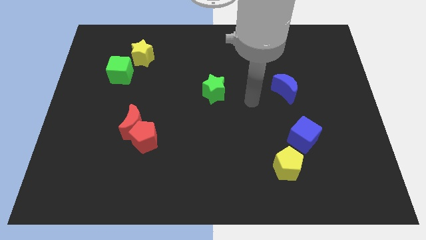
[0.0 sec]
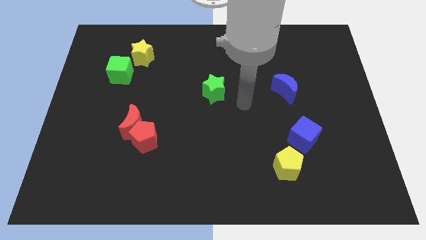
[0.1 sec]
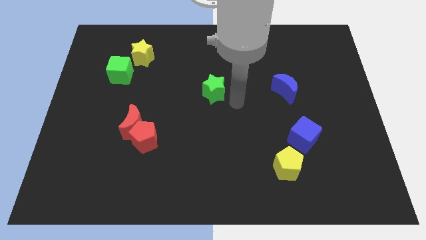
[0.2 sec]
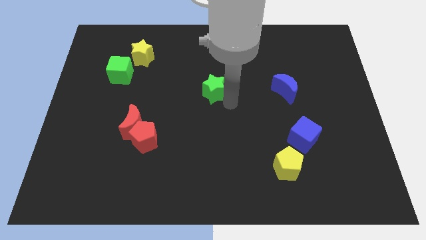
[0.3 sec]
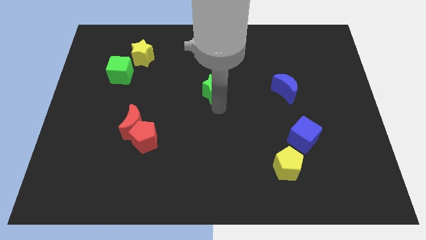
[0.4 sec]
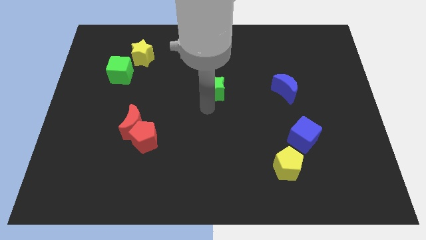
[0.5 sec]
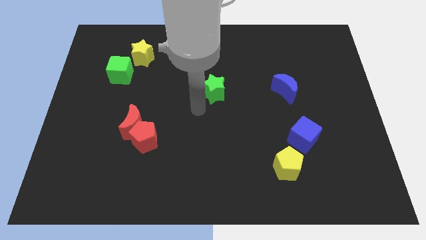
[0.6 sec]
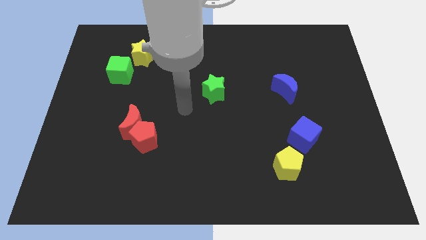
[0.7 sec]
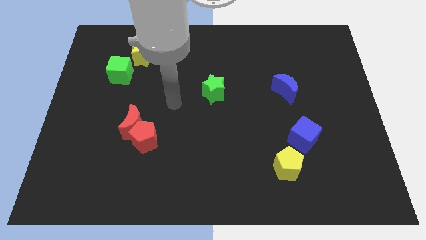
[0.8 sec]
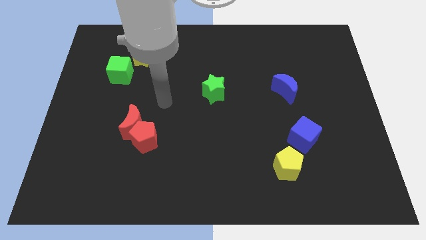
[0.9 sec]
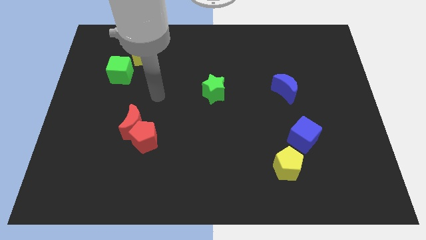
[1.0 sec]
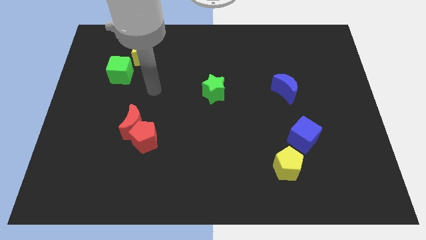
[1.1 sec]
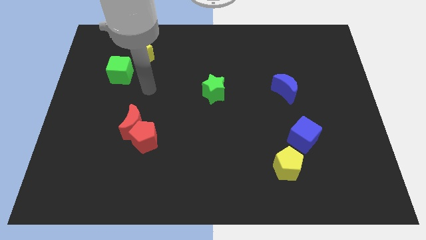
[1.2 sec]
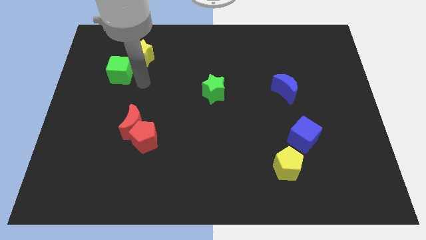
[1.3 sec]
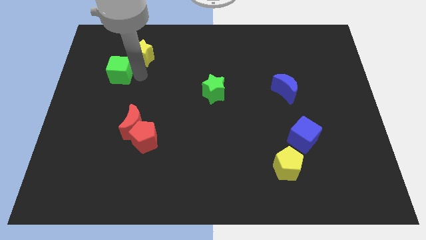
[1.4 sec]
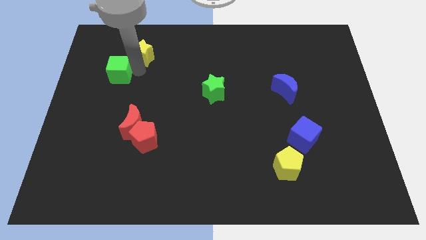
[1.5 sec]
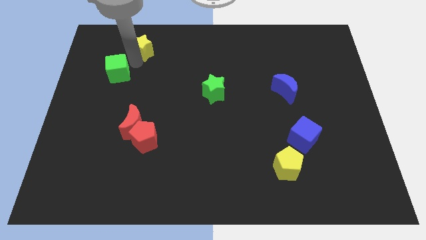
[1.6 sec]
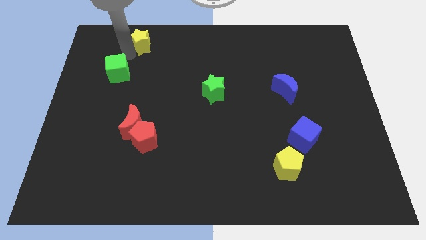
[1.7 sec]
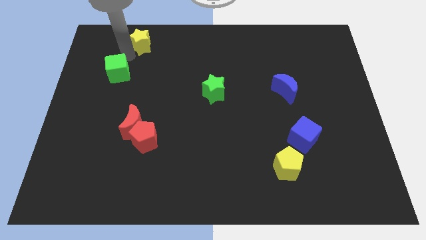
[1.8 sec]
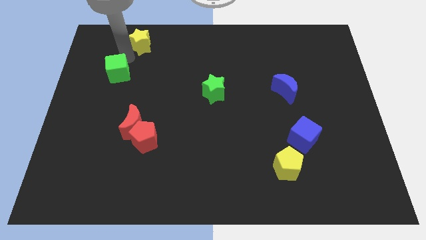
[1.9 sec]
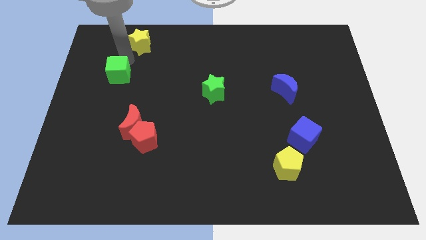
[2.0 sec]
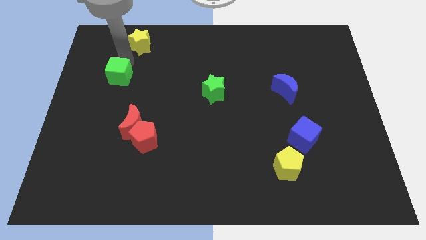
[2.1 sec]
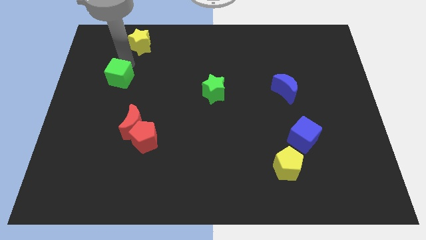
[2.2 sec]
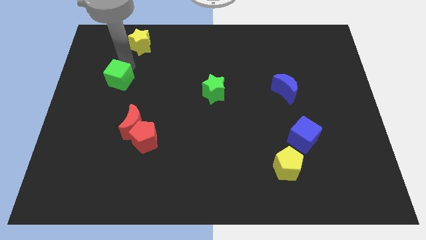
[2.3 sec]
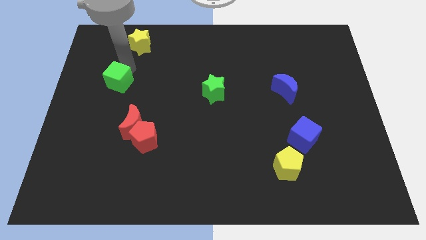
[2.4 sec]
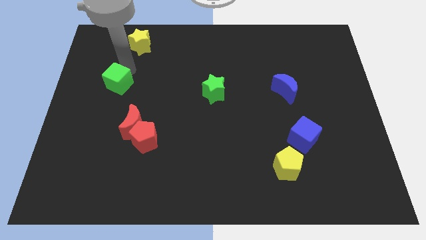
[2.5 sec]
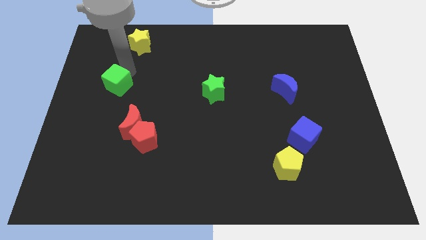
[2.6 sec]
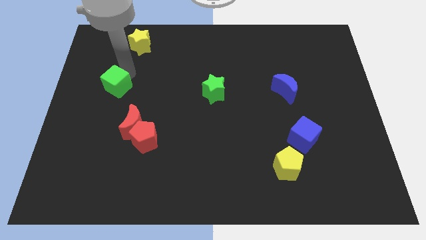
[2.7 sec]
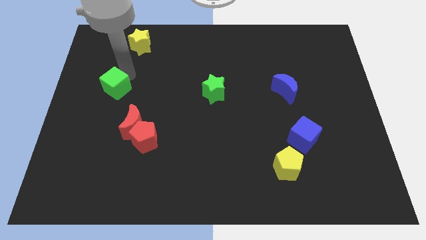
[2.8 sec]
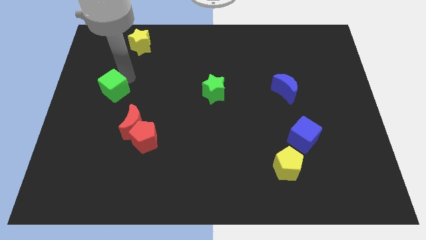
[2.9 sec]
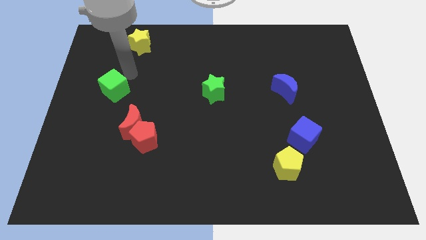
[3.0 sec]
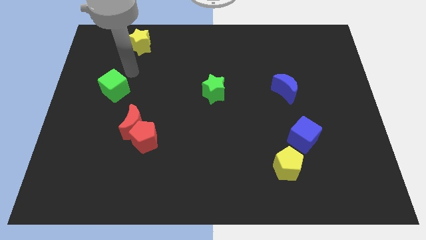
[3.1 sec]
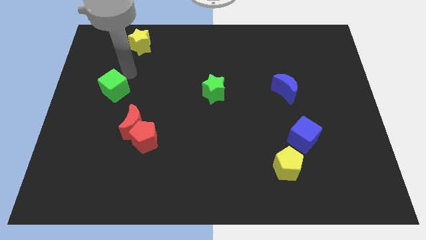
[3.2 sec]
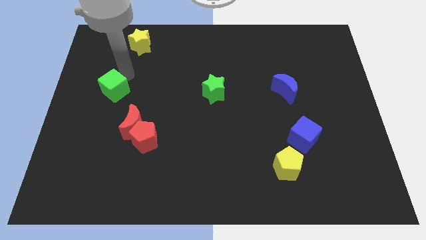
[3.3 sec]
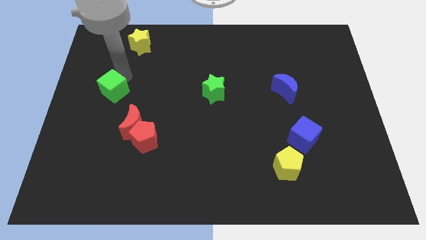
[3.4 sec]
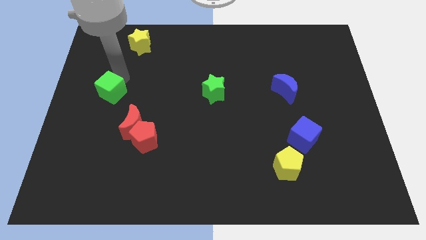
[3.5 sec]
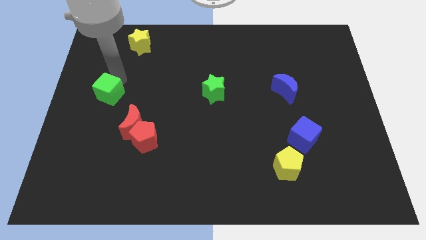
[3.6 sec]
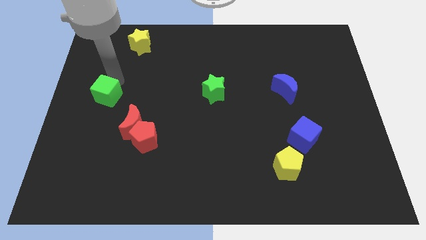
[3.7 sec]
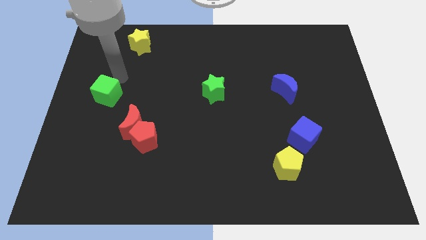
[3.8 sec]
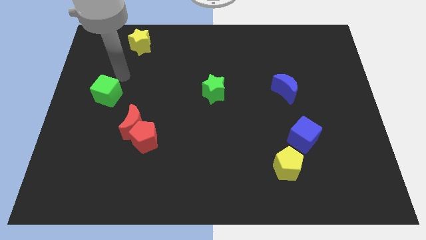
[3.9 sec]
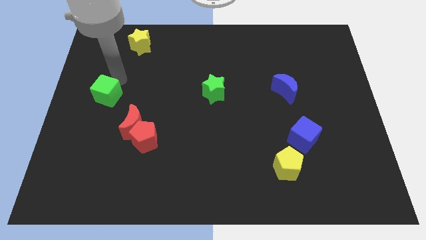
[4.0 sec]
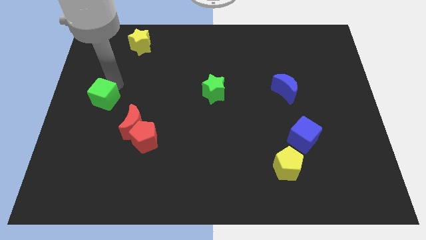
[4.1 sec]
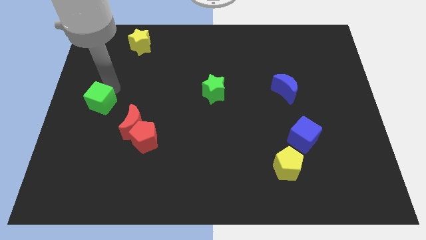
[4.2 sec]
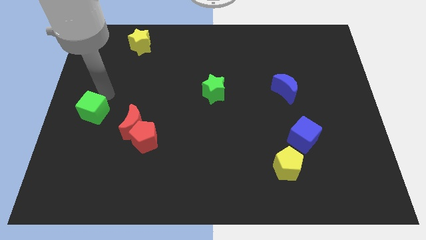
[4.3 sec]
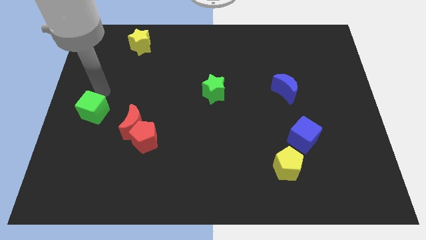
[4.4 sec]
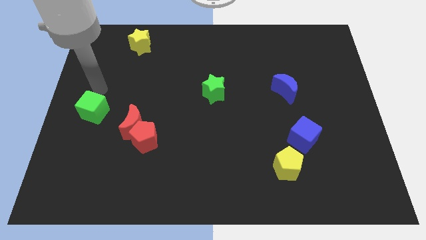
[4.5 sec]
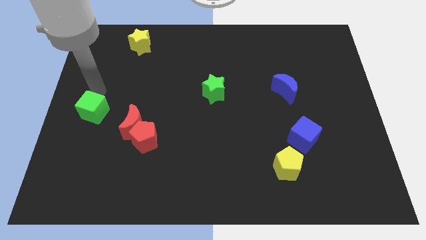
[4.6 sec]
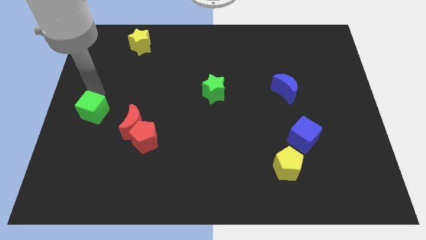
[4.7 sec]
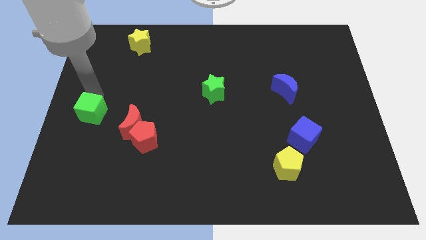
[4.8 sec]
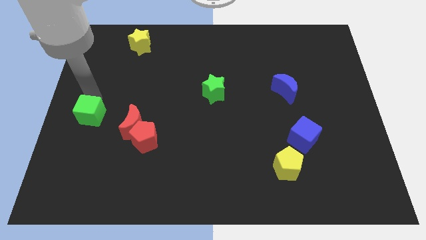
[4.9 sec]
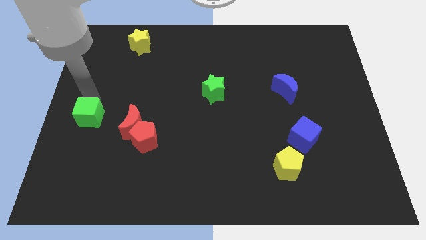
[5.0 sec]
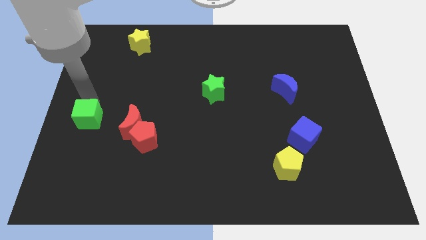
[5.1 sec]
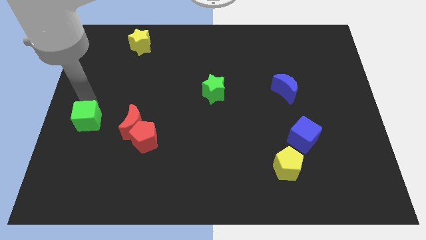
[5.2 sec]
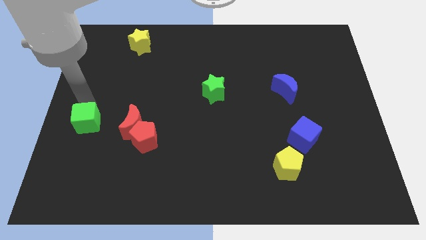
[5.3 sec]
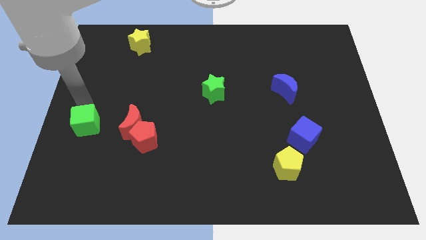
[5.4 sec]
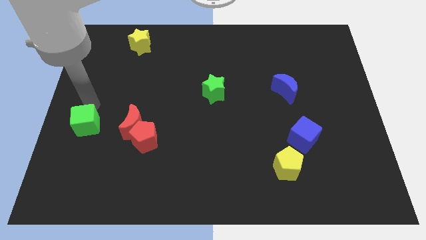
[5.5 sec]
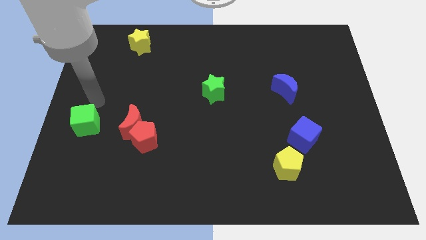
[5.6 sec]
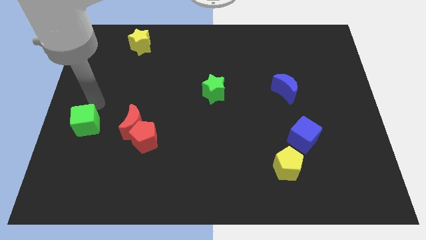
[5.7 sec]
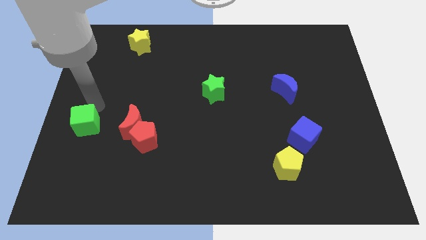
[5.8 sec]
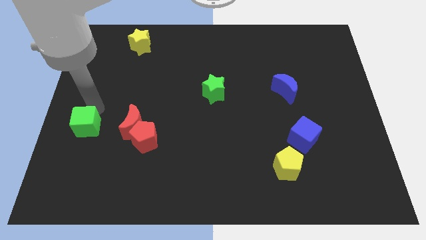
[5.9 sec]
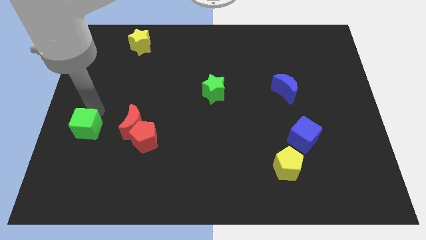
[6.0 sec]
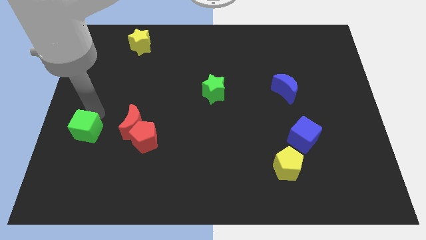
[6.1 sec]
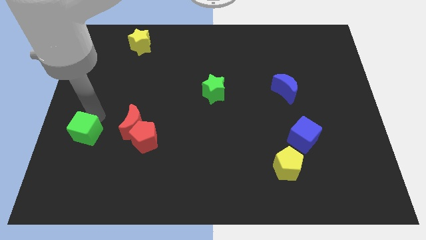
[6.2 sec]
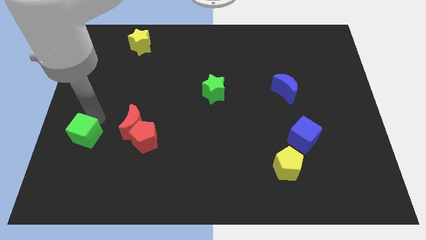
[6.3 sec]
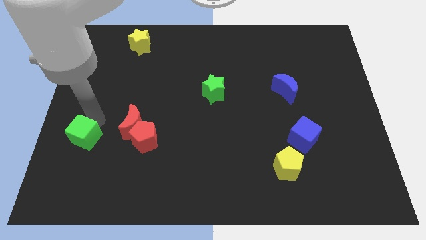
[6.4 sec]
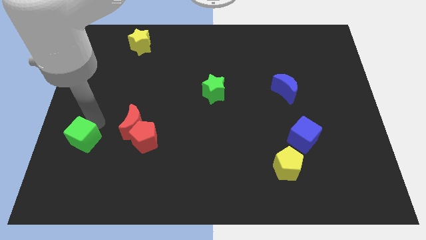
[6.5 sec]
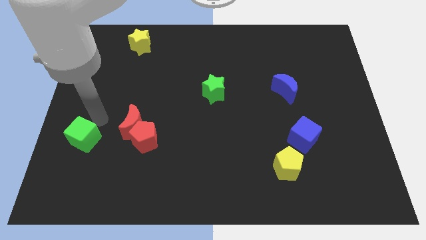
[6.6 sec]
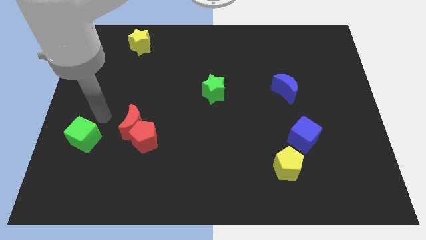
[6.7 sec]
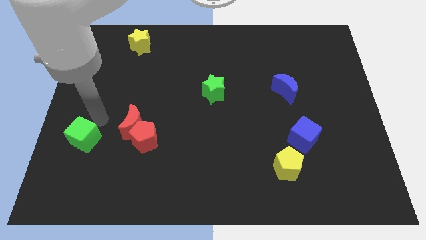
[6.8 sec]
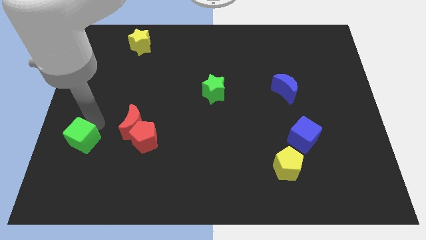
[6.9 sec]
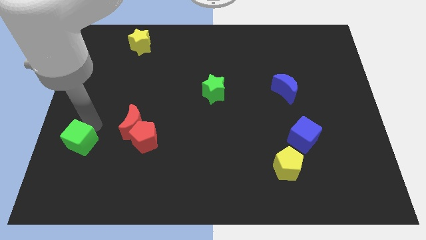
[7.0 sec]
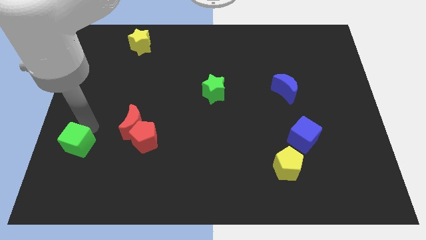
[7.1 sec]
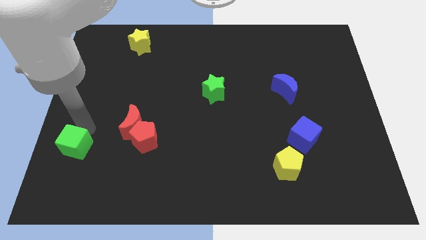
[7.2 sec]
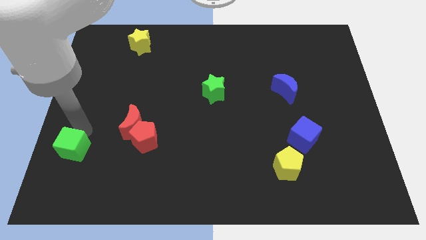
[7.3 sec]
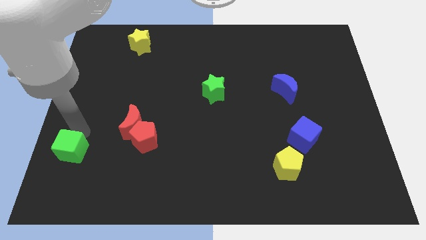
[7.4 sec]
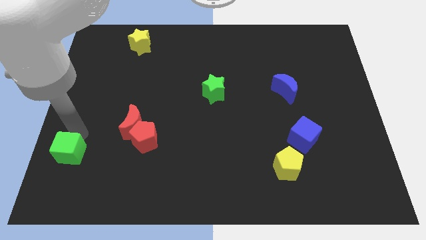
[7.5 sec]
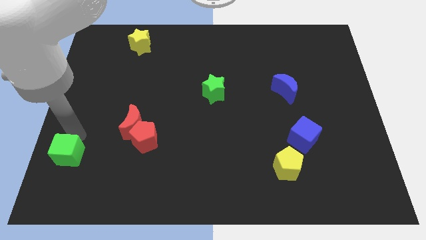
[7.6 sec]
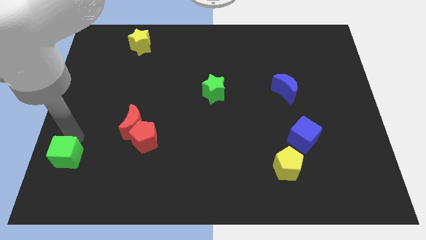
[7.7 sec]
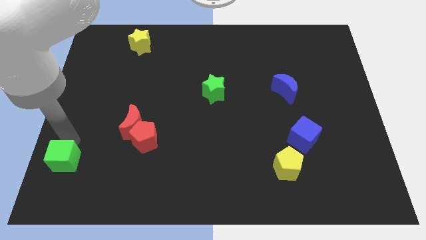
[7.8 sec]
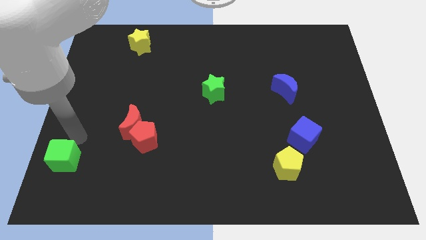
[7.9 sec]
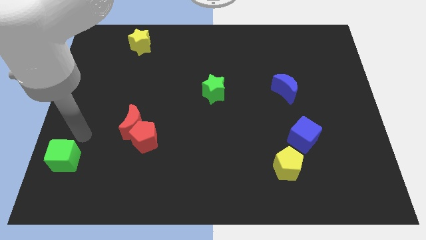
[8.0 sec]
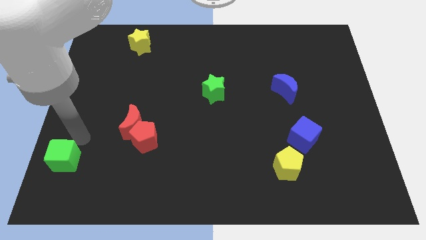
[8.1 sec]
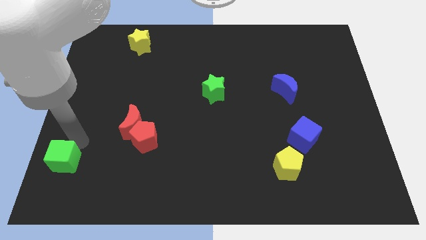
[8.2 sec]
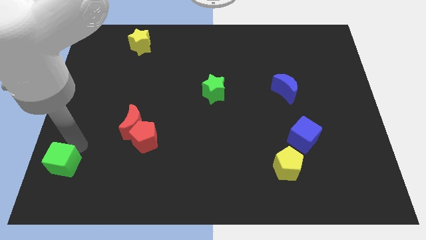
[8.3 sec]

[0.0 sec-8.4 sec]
put the green cube to the lower left corner
